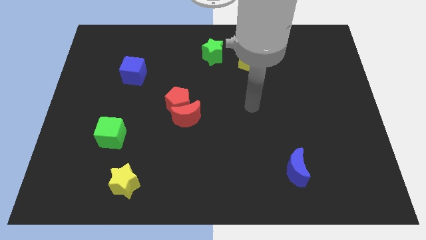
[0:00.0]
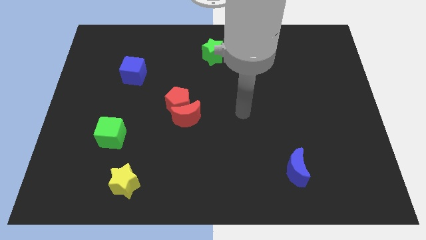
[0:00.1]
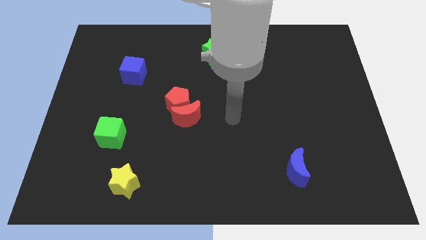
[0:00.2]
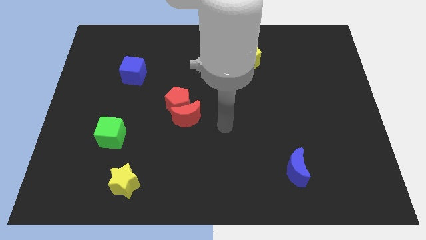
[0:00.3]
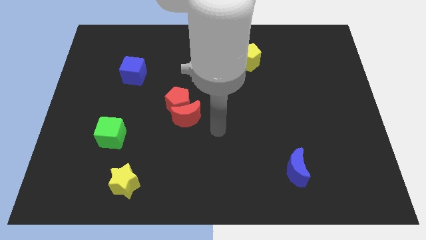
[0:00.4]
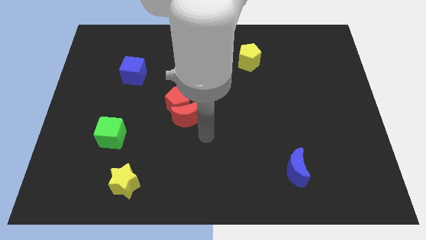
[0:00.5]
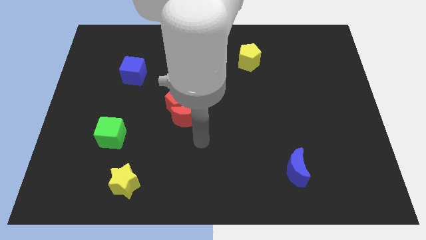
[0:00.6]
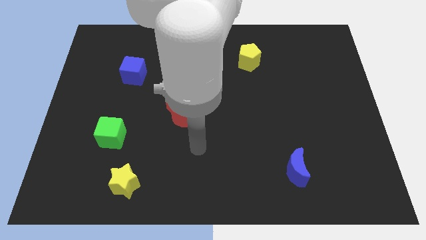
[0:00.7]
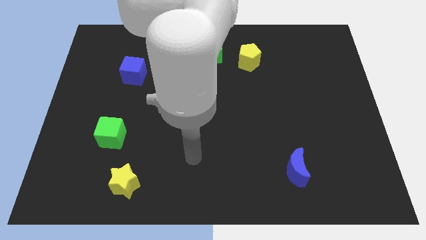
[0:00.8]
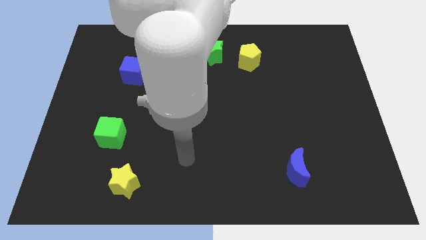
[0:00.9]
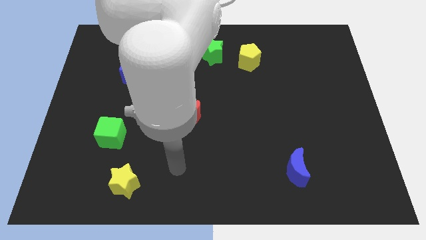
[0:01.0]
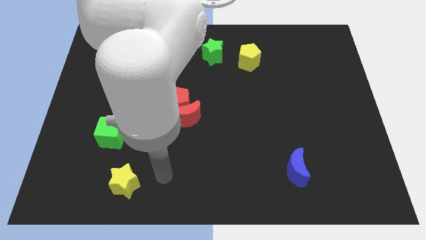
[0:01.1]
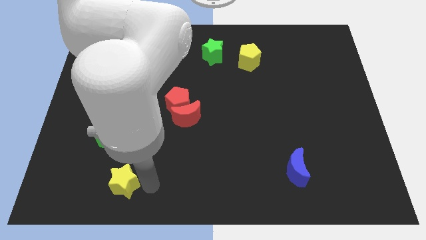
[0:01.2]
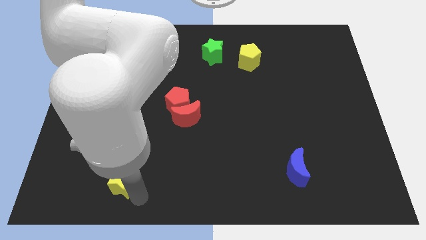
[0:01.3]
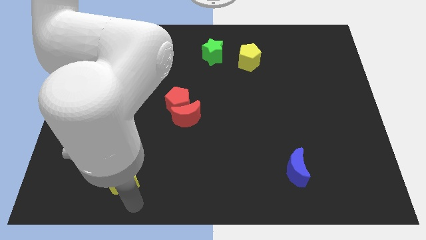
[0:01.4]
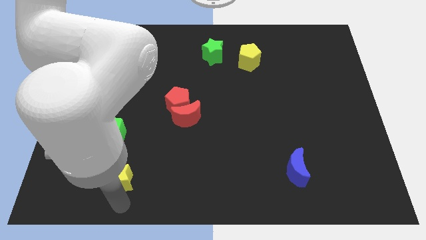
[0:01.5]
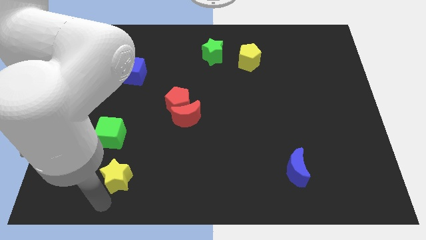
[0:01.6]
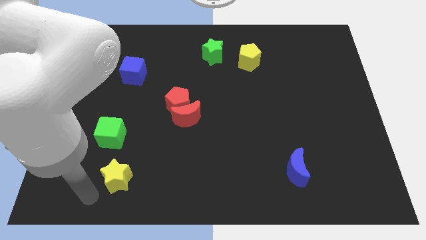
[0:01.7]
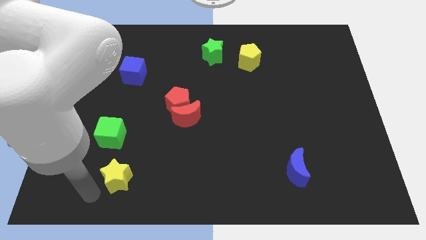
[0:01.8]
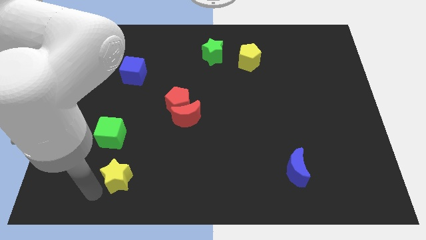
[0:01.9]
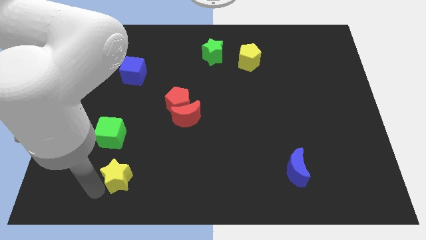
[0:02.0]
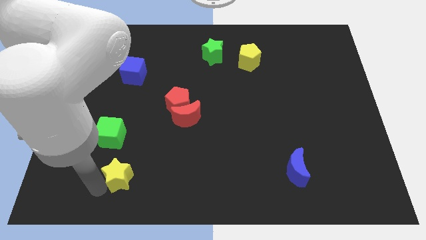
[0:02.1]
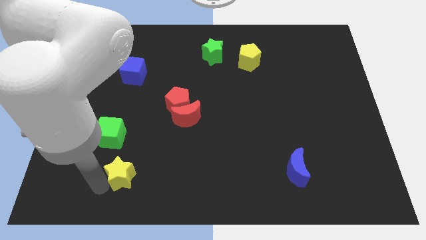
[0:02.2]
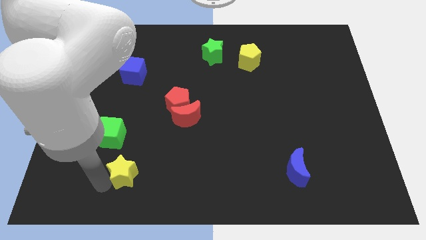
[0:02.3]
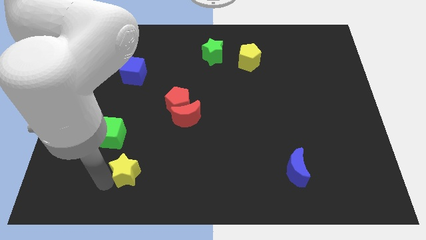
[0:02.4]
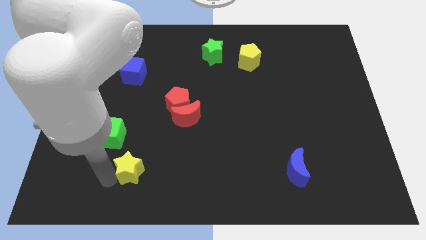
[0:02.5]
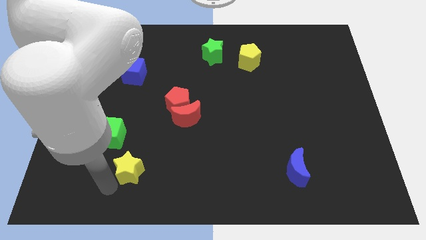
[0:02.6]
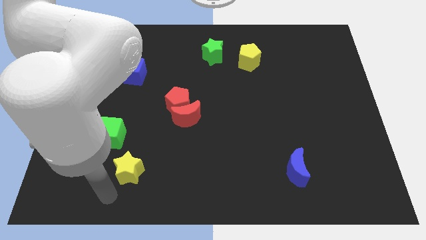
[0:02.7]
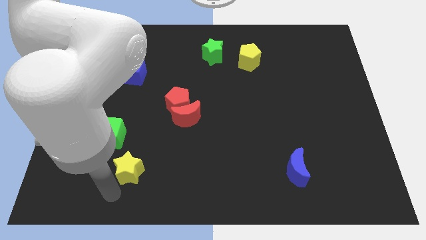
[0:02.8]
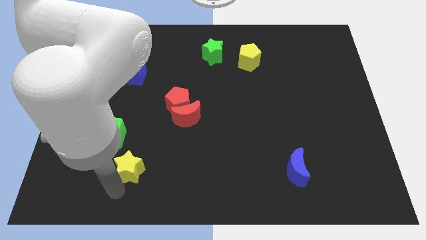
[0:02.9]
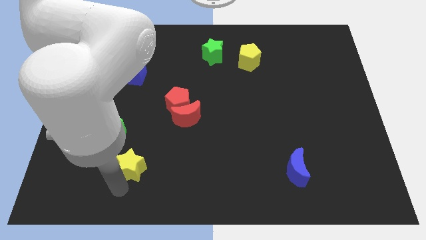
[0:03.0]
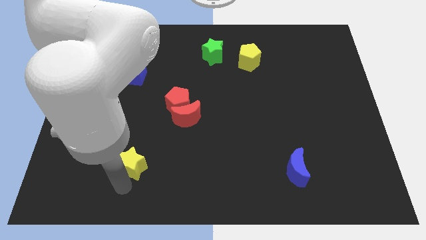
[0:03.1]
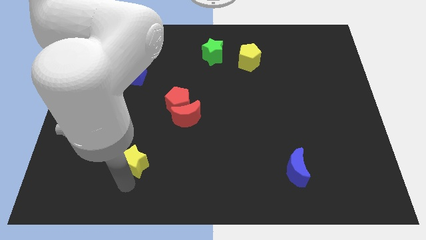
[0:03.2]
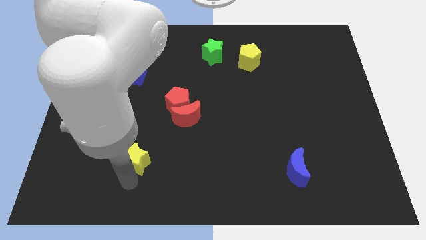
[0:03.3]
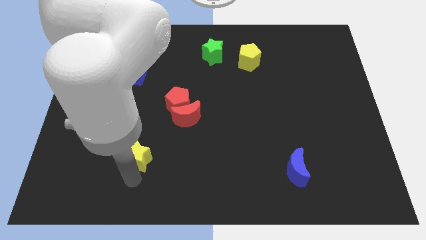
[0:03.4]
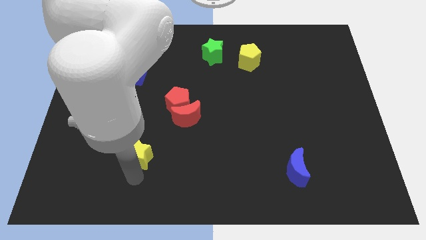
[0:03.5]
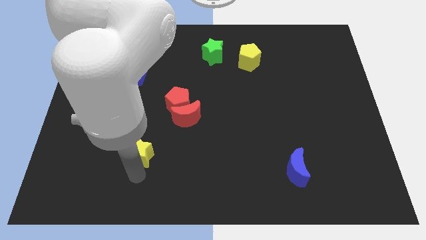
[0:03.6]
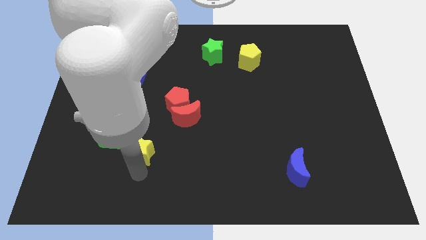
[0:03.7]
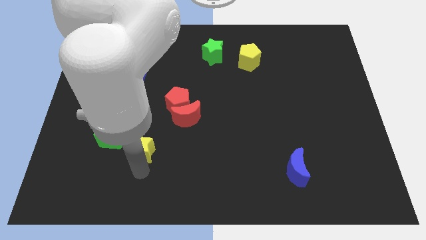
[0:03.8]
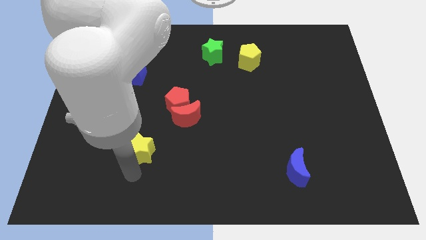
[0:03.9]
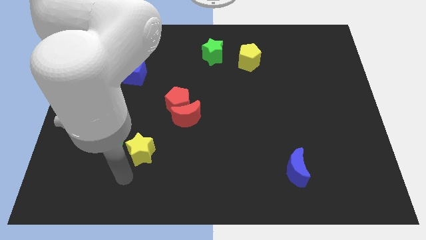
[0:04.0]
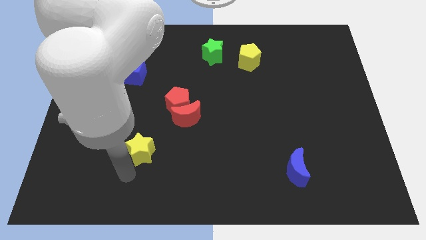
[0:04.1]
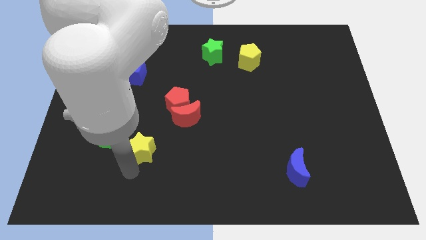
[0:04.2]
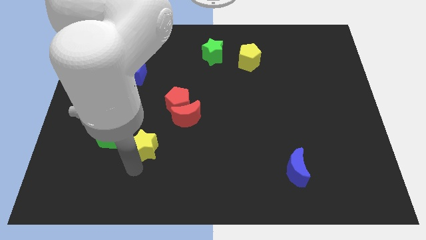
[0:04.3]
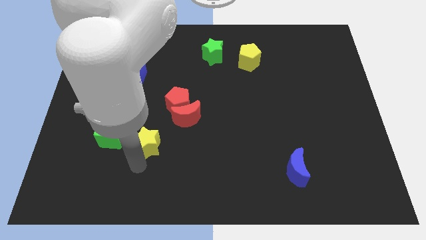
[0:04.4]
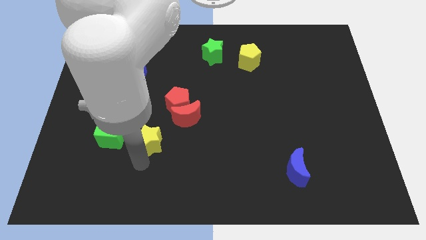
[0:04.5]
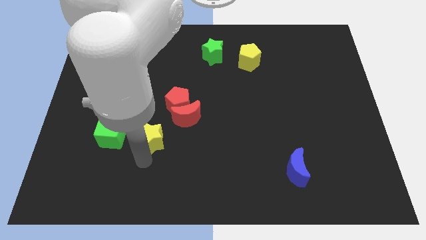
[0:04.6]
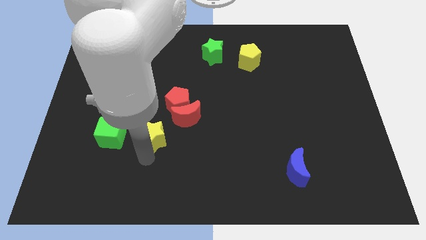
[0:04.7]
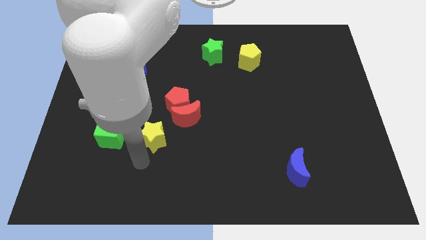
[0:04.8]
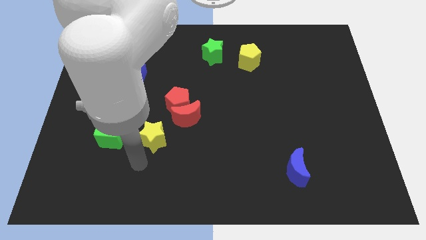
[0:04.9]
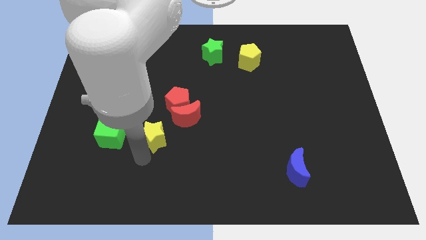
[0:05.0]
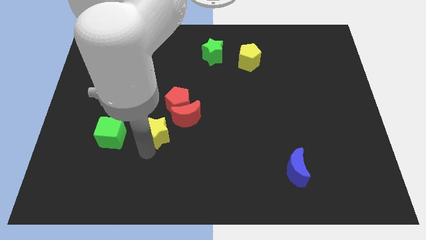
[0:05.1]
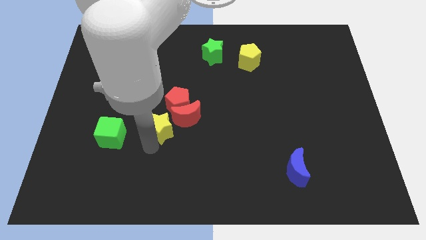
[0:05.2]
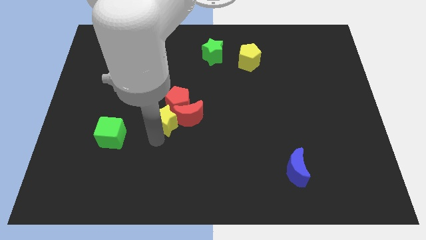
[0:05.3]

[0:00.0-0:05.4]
slide the yellow star towards the red pentagon

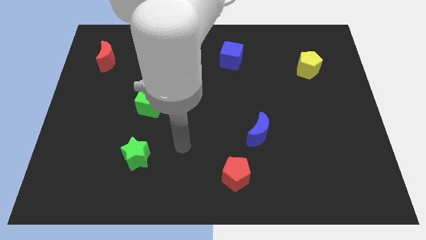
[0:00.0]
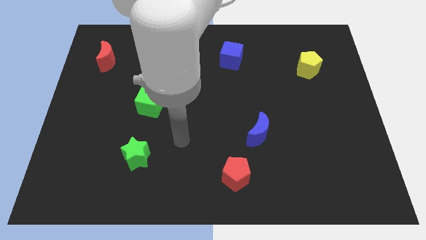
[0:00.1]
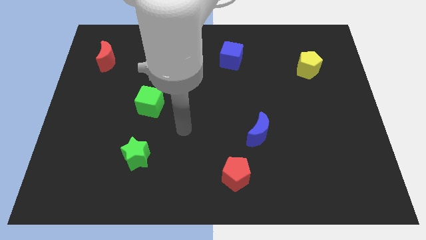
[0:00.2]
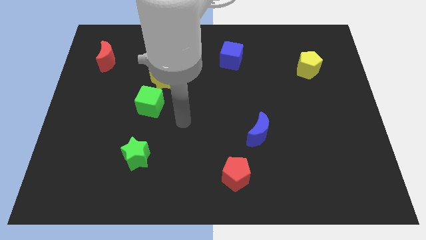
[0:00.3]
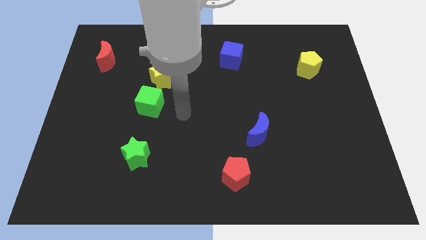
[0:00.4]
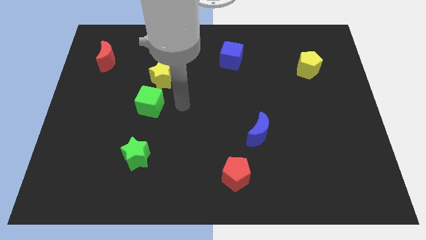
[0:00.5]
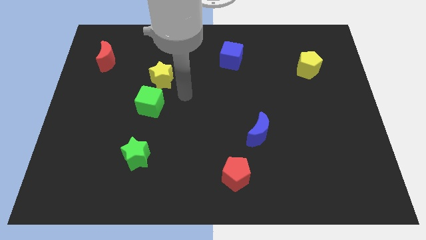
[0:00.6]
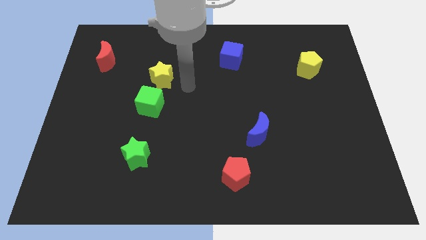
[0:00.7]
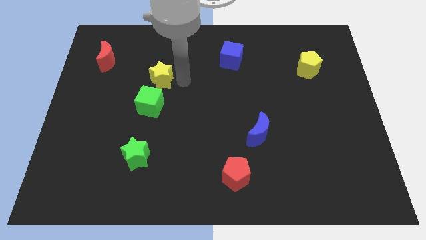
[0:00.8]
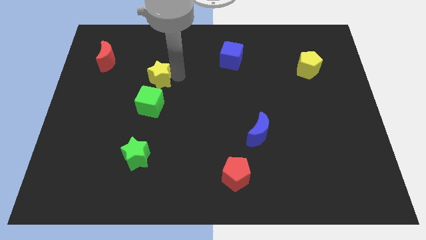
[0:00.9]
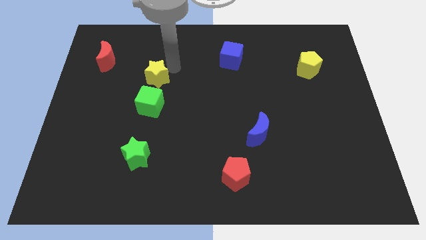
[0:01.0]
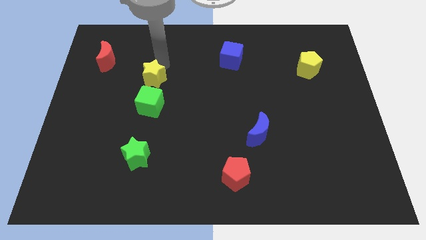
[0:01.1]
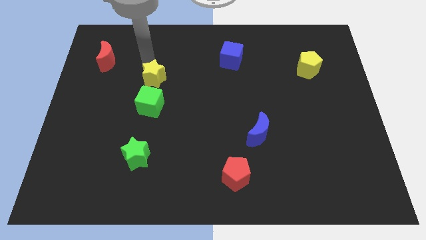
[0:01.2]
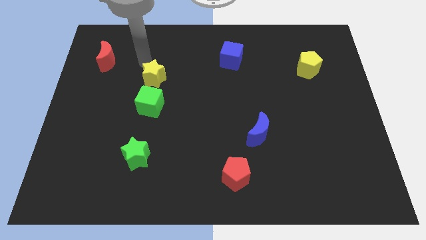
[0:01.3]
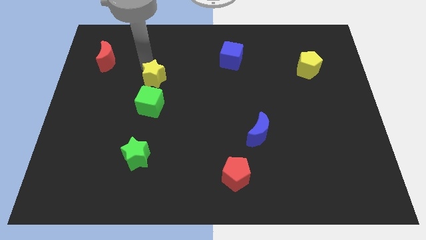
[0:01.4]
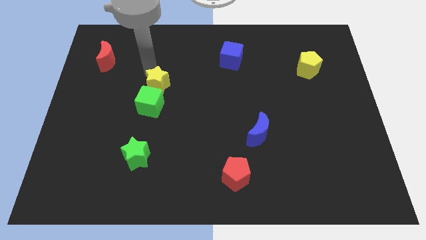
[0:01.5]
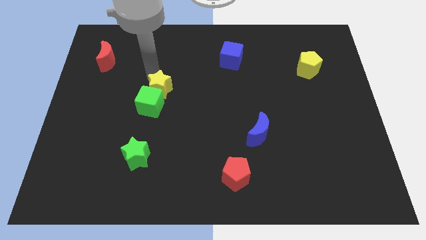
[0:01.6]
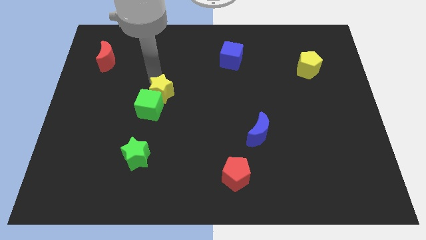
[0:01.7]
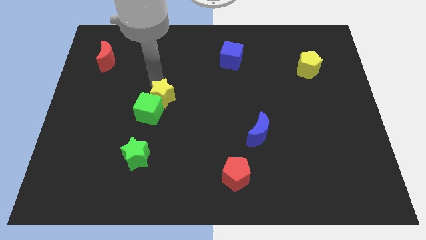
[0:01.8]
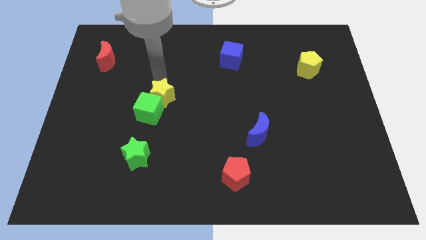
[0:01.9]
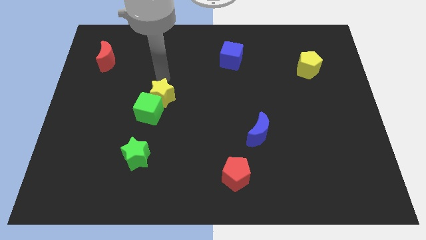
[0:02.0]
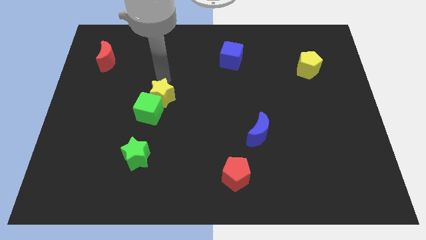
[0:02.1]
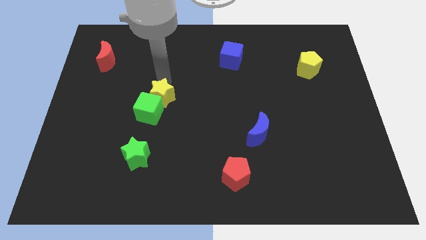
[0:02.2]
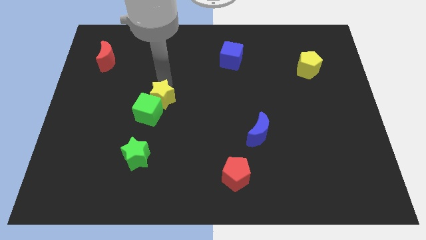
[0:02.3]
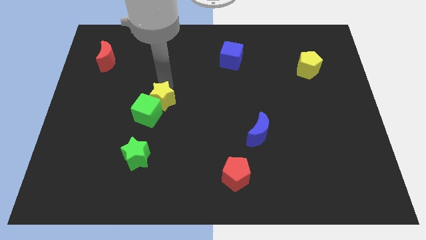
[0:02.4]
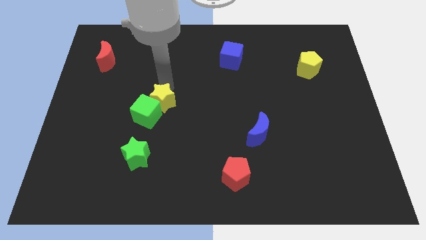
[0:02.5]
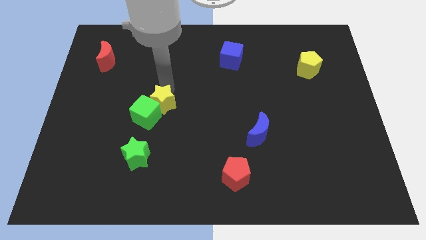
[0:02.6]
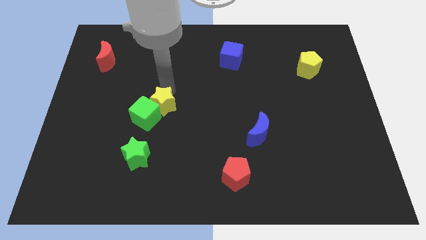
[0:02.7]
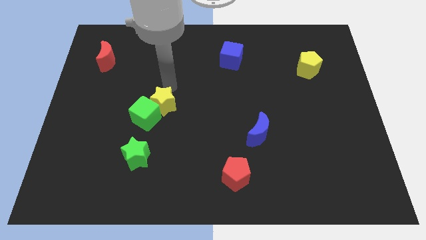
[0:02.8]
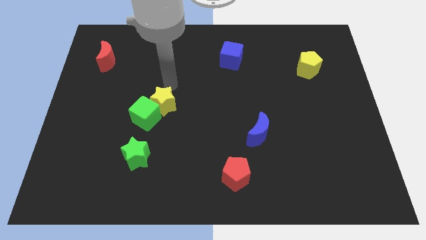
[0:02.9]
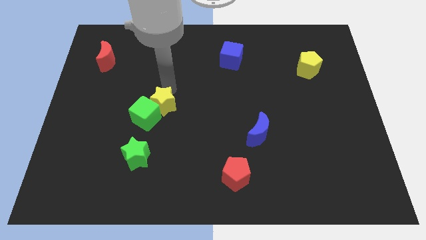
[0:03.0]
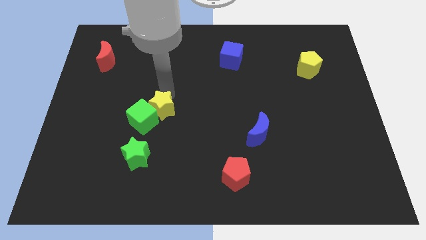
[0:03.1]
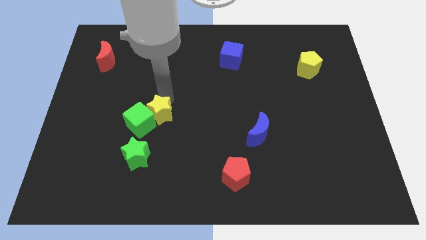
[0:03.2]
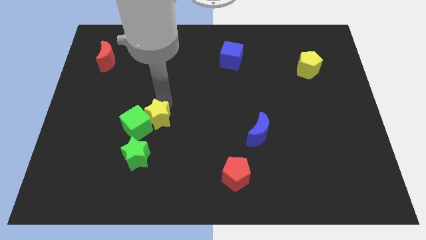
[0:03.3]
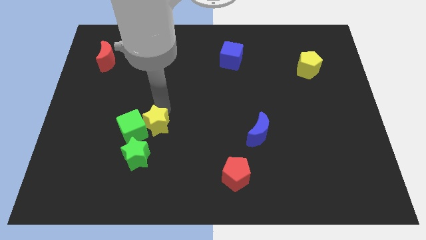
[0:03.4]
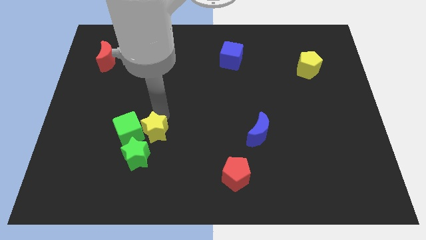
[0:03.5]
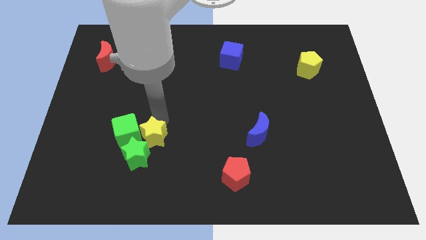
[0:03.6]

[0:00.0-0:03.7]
put the yellow star to the green star
